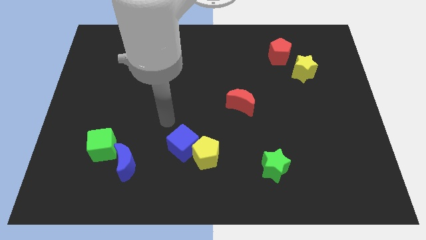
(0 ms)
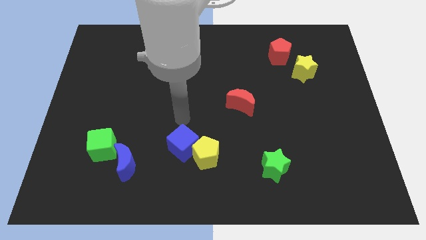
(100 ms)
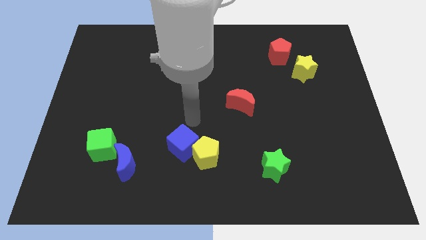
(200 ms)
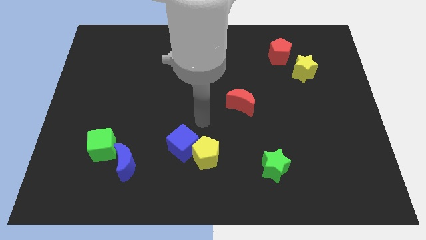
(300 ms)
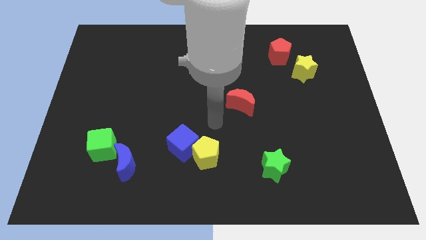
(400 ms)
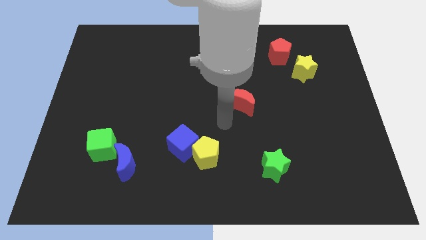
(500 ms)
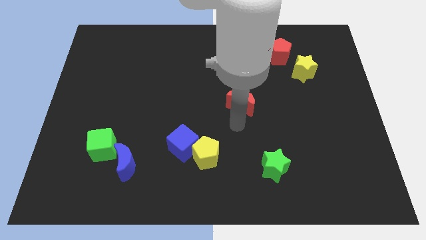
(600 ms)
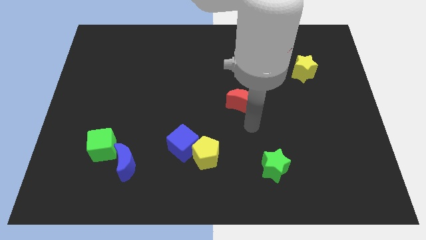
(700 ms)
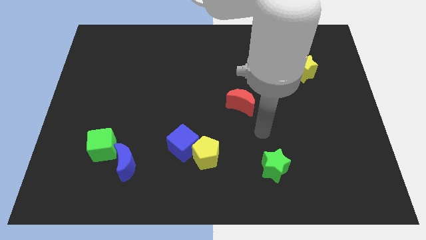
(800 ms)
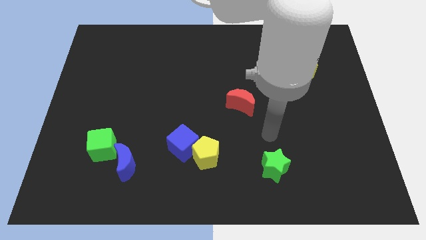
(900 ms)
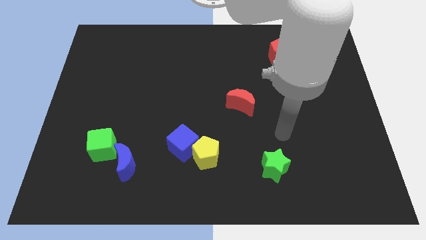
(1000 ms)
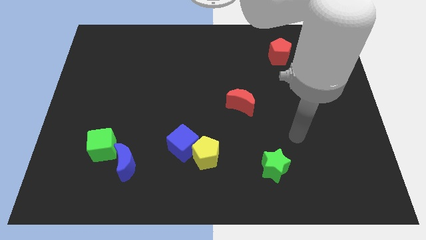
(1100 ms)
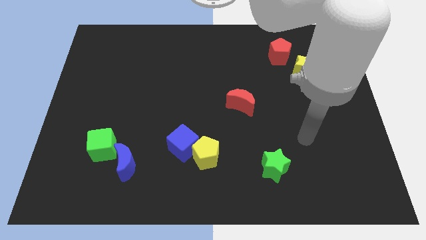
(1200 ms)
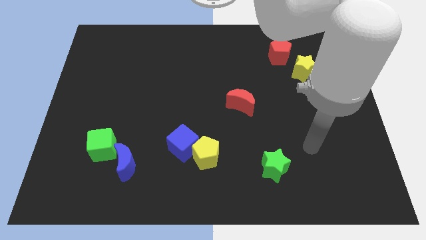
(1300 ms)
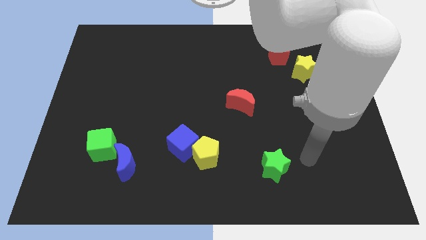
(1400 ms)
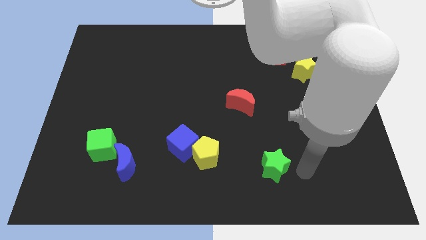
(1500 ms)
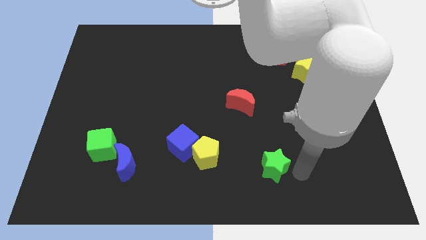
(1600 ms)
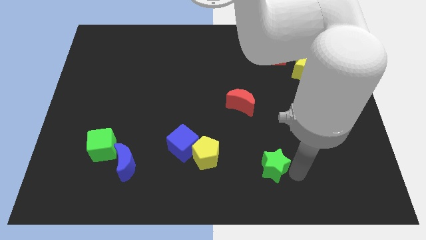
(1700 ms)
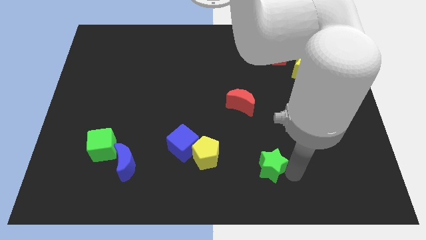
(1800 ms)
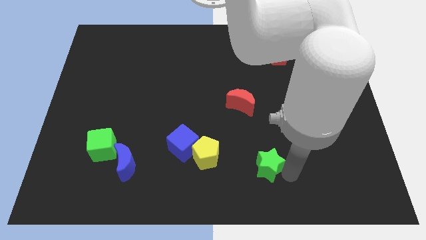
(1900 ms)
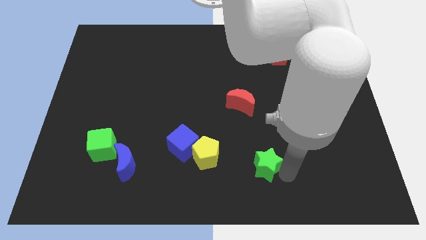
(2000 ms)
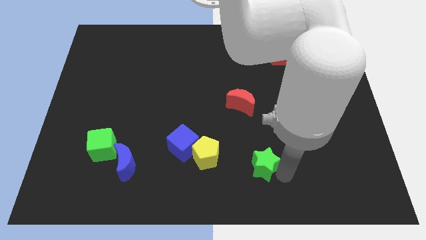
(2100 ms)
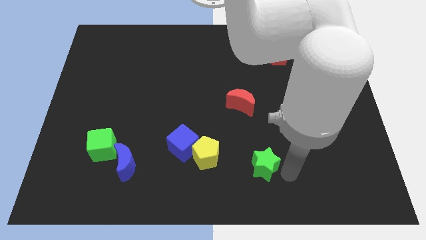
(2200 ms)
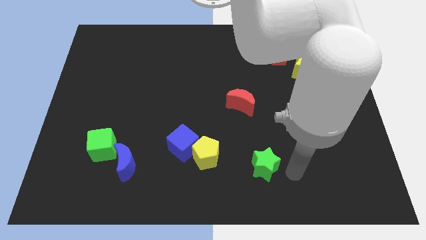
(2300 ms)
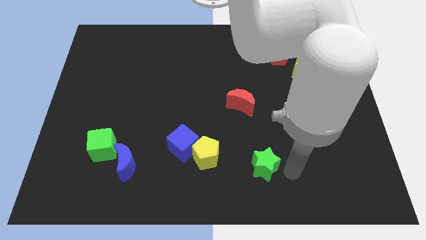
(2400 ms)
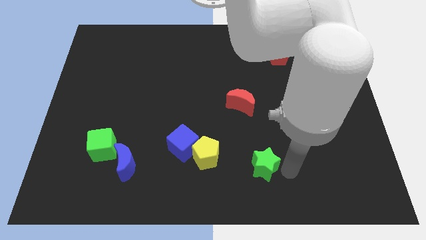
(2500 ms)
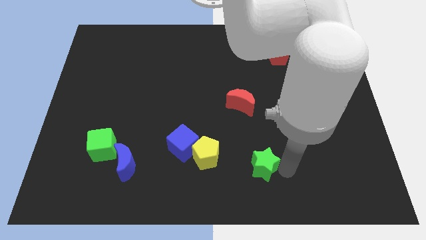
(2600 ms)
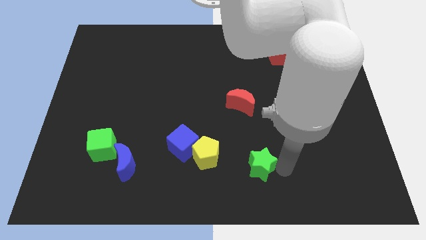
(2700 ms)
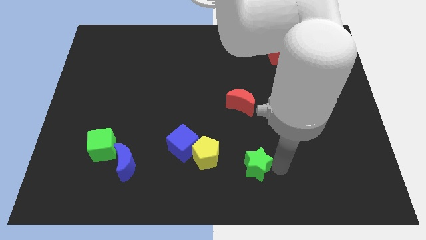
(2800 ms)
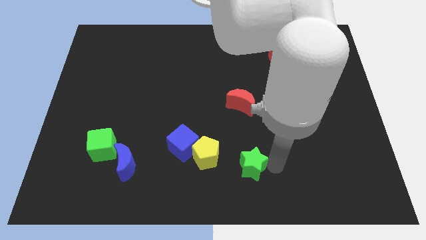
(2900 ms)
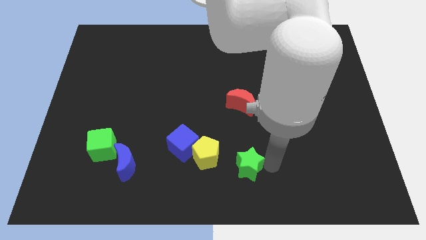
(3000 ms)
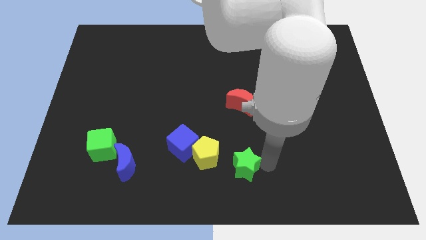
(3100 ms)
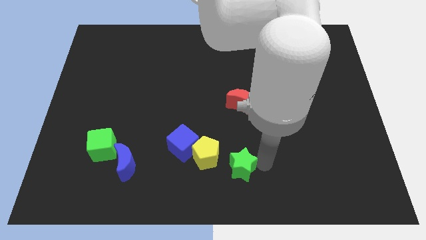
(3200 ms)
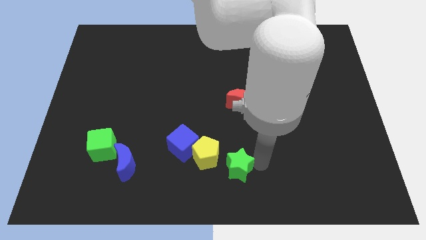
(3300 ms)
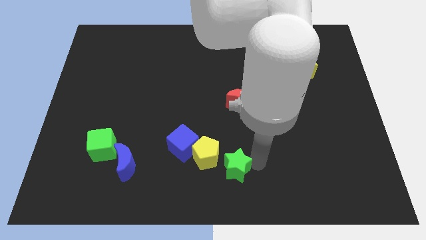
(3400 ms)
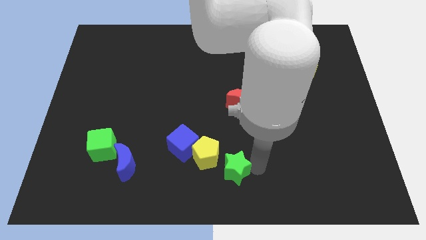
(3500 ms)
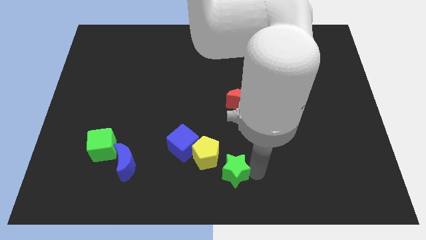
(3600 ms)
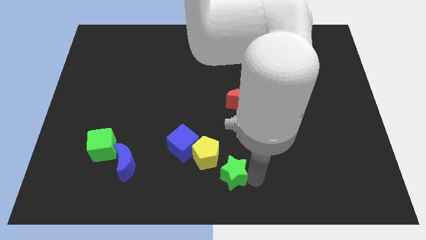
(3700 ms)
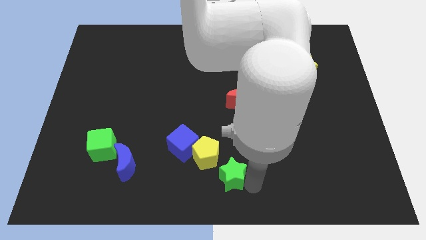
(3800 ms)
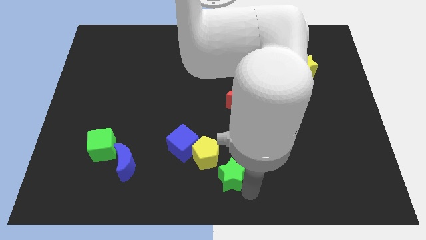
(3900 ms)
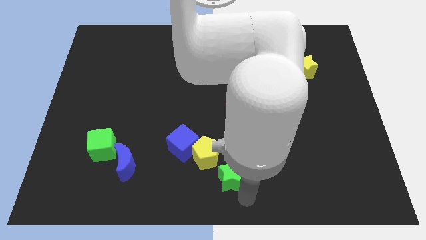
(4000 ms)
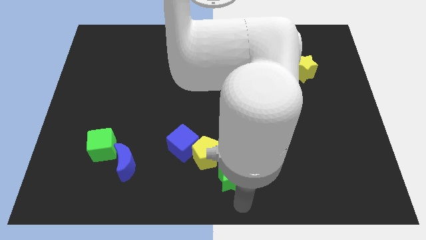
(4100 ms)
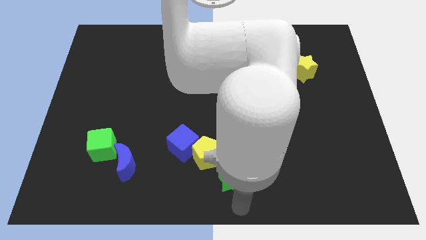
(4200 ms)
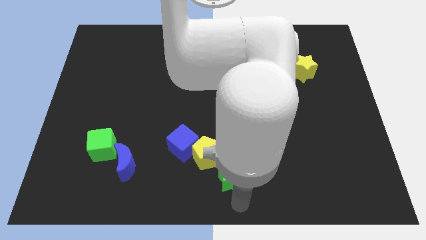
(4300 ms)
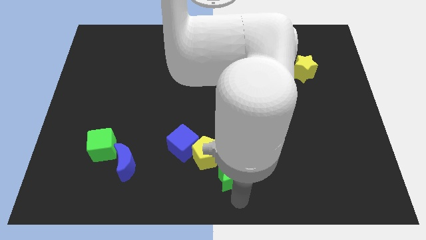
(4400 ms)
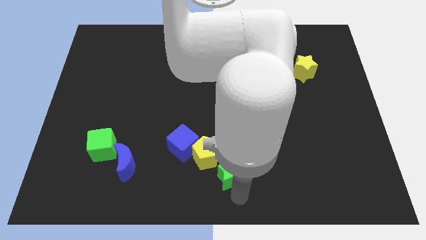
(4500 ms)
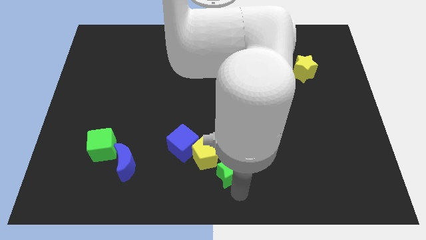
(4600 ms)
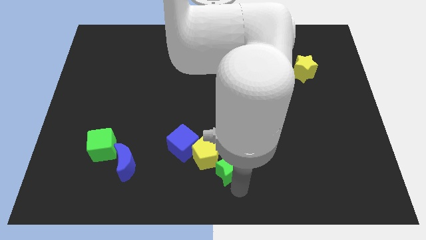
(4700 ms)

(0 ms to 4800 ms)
slide the green star to the yellow pentagon

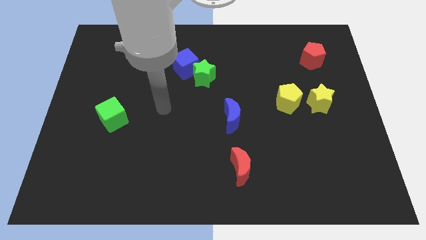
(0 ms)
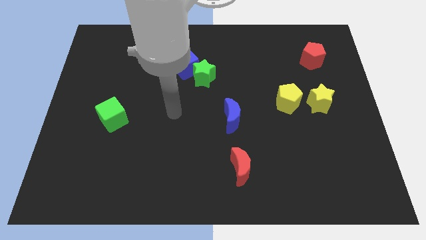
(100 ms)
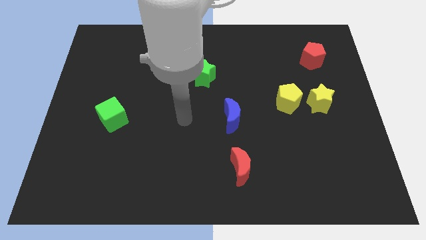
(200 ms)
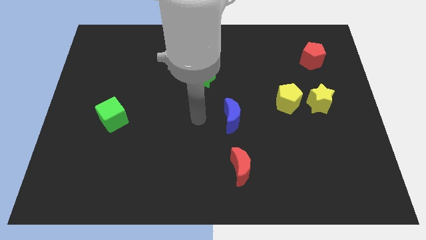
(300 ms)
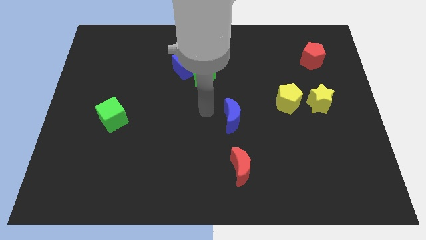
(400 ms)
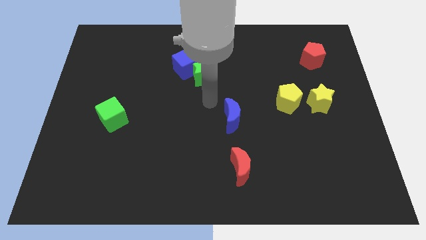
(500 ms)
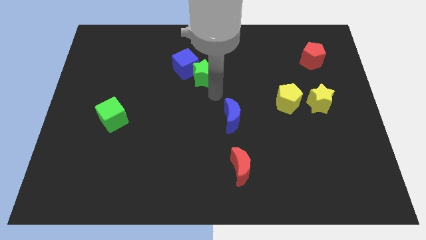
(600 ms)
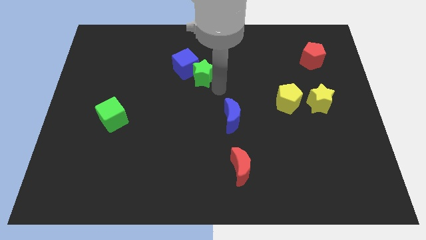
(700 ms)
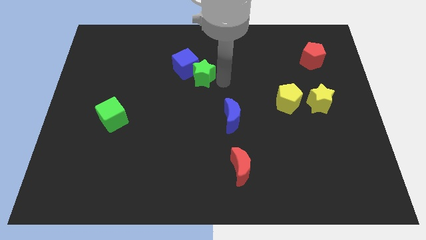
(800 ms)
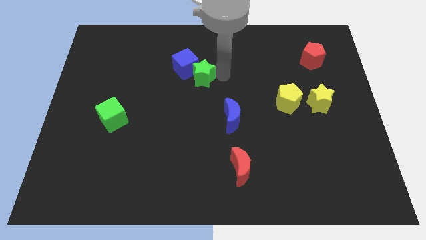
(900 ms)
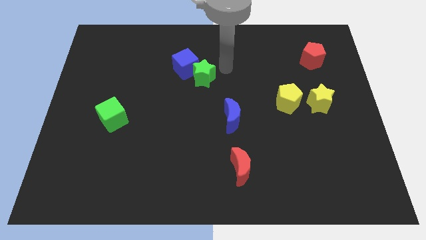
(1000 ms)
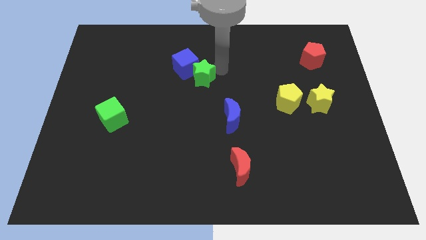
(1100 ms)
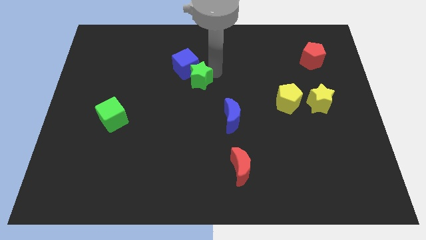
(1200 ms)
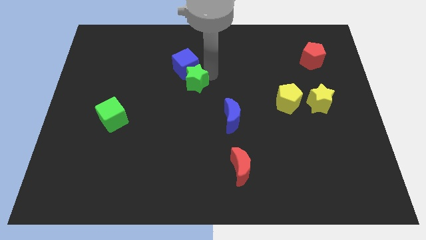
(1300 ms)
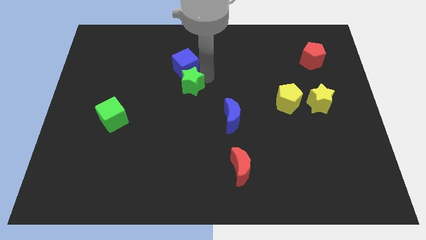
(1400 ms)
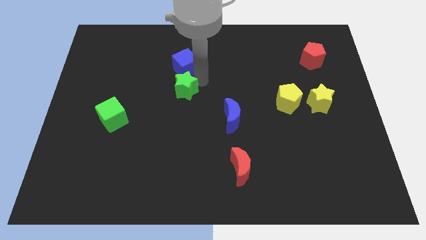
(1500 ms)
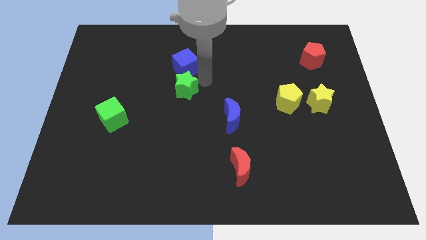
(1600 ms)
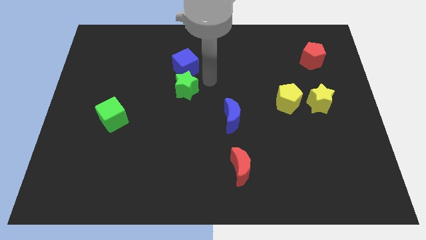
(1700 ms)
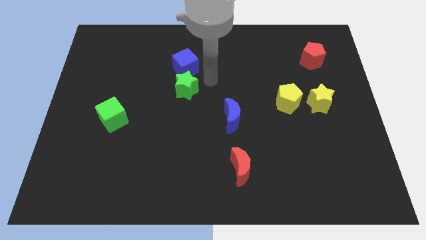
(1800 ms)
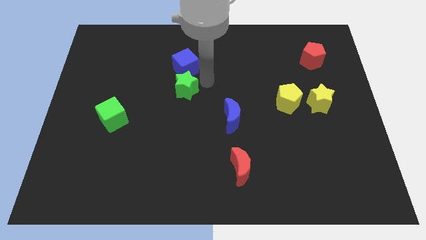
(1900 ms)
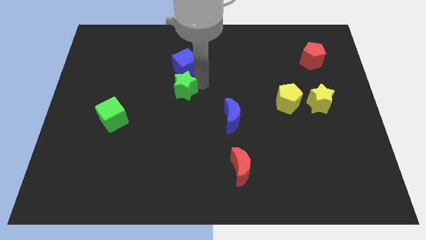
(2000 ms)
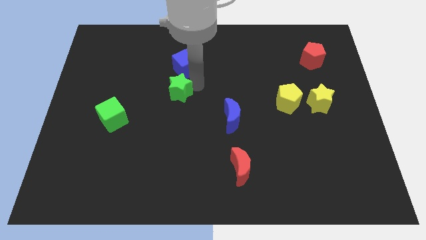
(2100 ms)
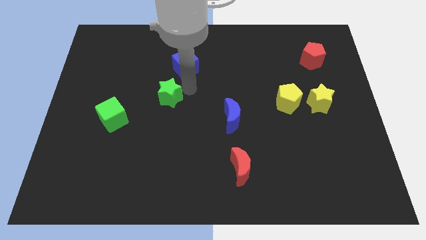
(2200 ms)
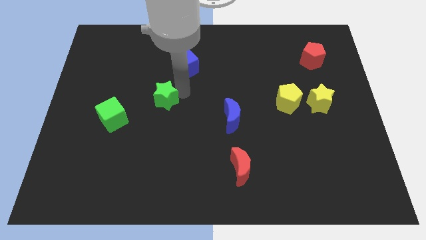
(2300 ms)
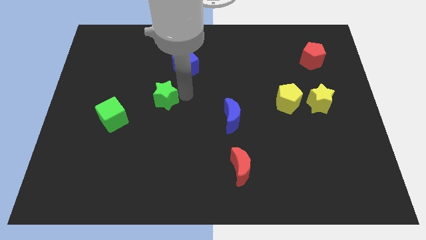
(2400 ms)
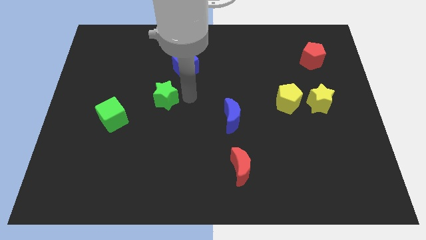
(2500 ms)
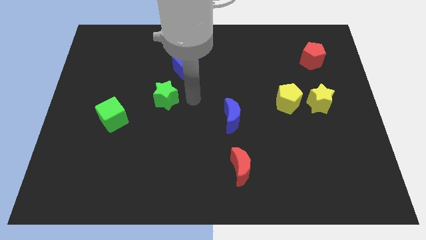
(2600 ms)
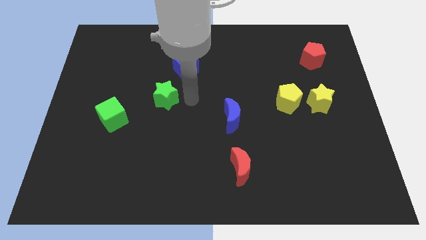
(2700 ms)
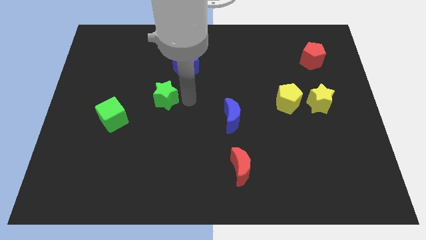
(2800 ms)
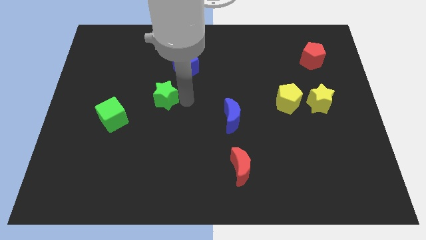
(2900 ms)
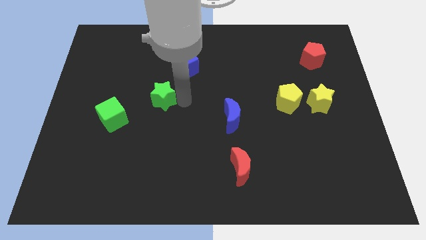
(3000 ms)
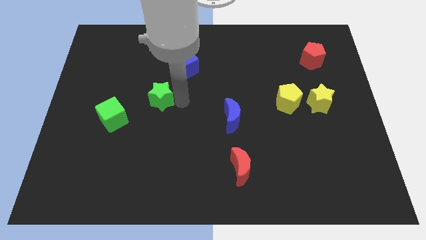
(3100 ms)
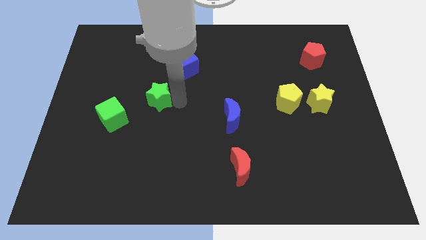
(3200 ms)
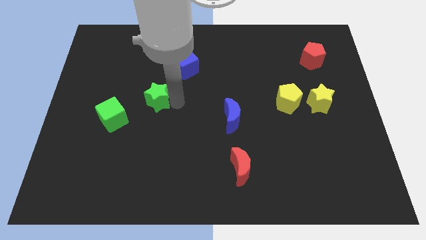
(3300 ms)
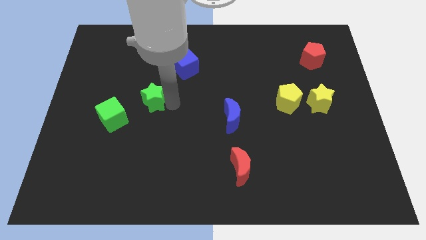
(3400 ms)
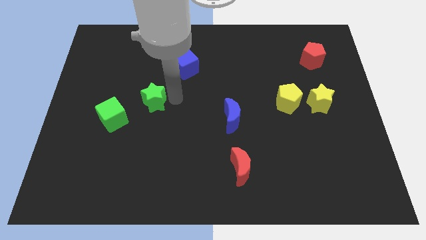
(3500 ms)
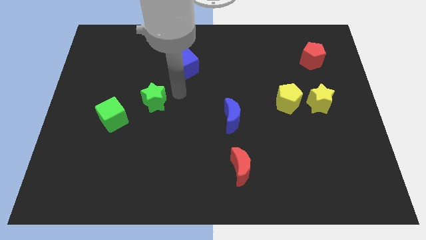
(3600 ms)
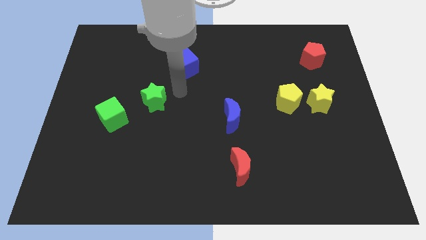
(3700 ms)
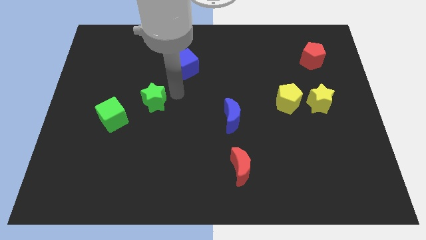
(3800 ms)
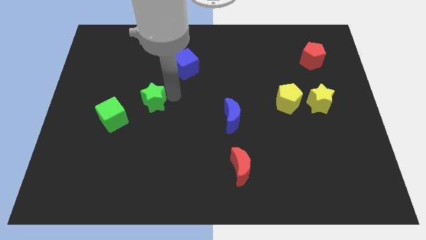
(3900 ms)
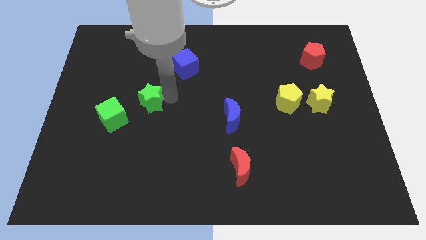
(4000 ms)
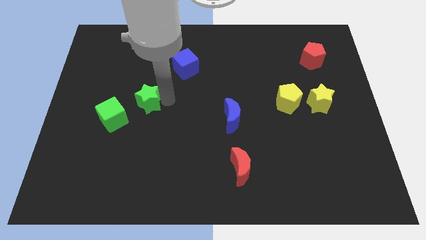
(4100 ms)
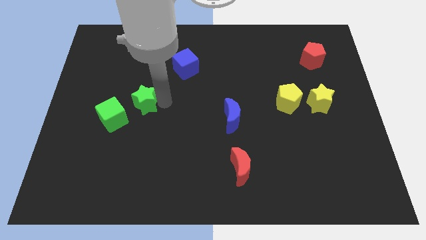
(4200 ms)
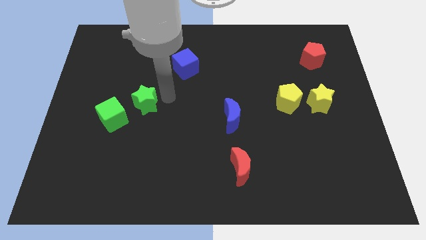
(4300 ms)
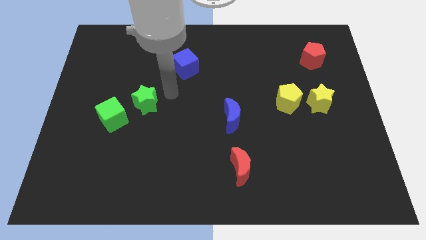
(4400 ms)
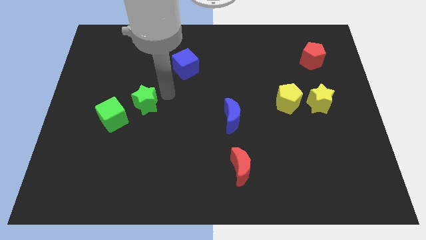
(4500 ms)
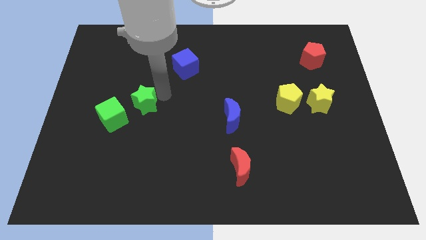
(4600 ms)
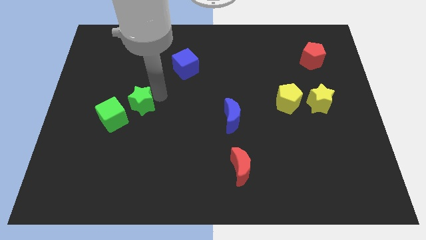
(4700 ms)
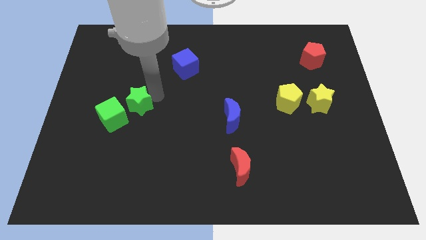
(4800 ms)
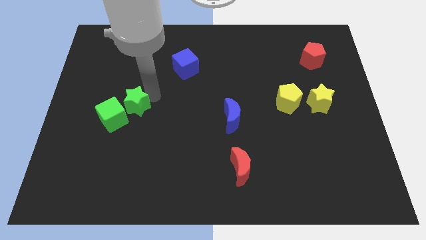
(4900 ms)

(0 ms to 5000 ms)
move the green star towards the green cube
